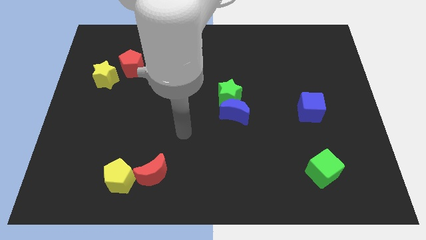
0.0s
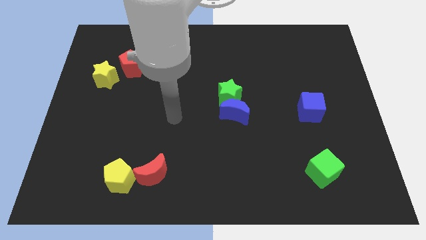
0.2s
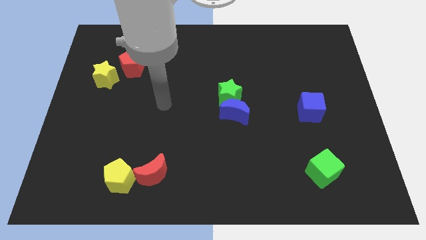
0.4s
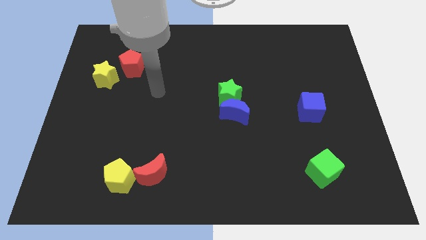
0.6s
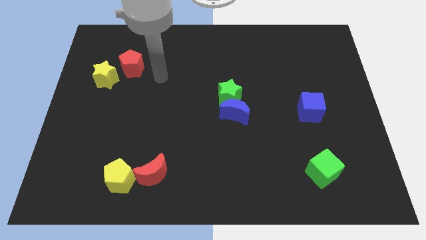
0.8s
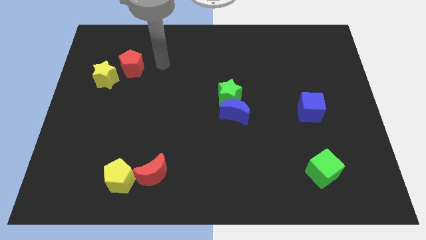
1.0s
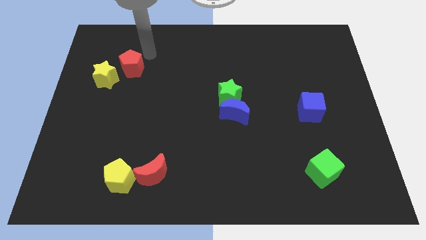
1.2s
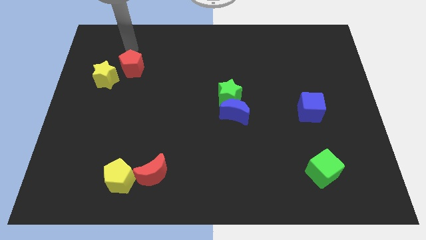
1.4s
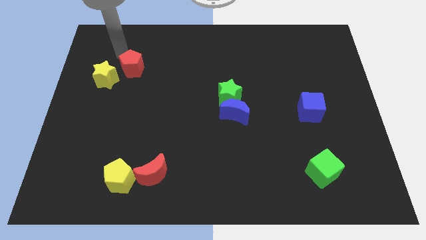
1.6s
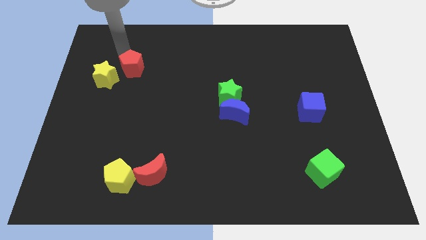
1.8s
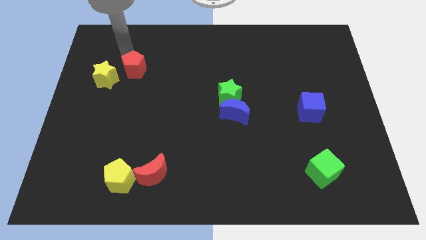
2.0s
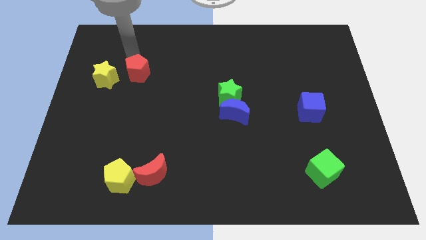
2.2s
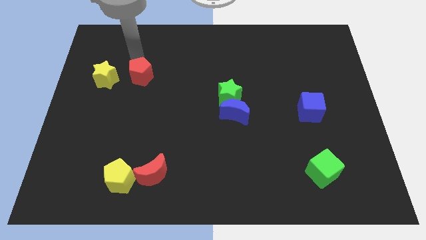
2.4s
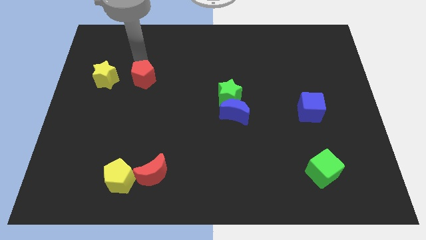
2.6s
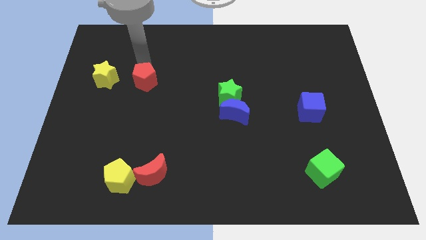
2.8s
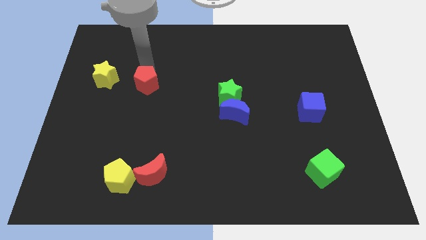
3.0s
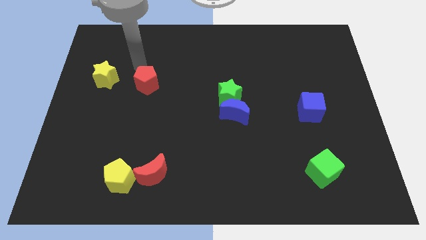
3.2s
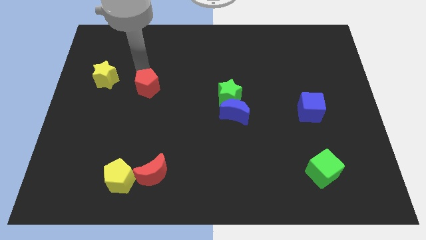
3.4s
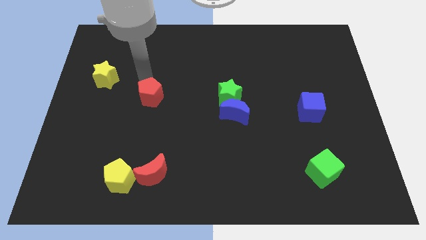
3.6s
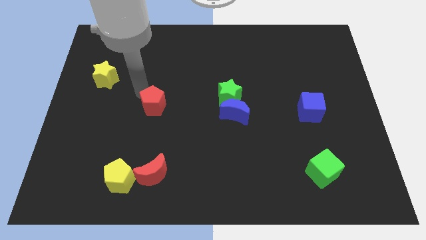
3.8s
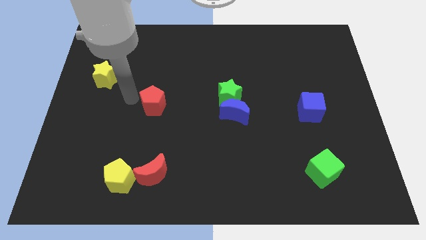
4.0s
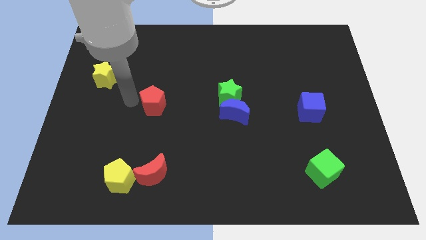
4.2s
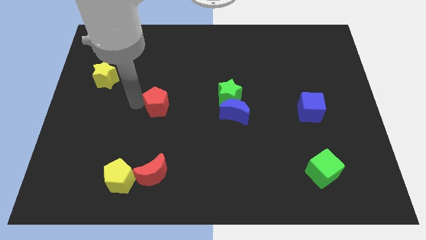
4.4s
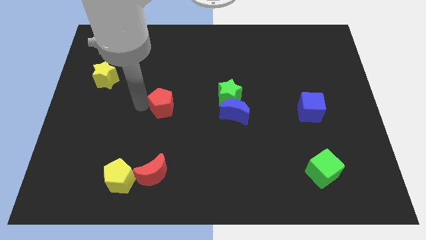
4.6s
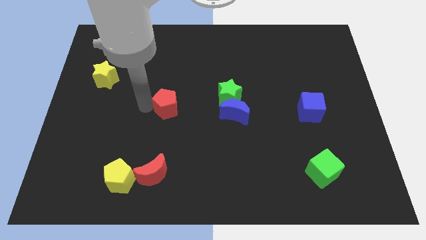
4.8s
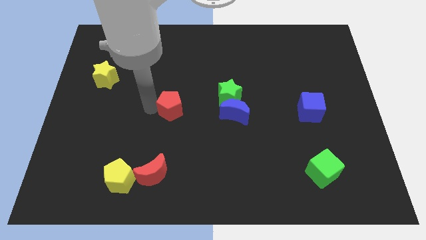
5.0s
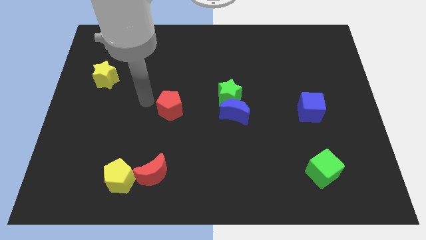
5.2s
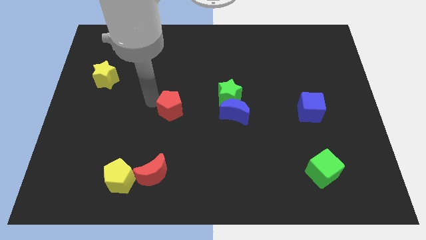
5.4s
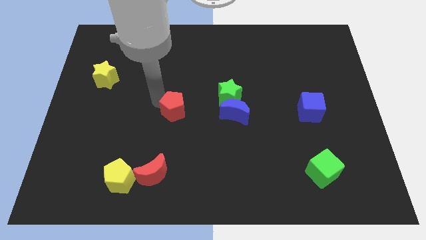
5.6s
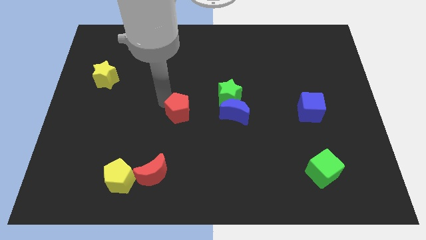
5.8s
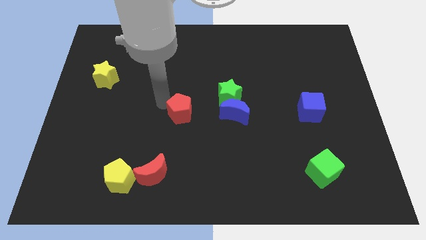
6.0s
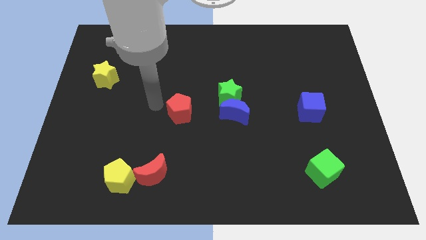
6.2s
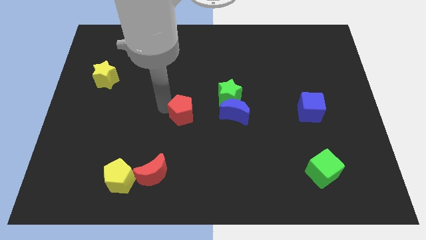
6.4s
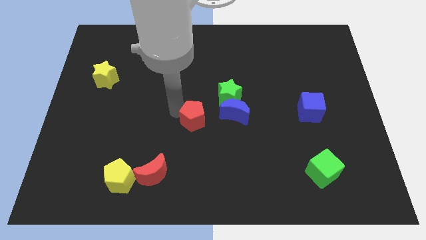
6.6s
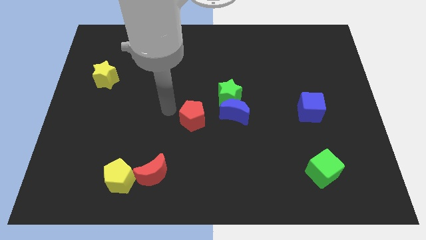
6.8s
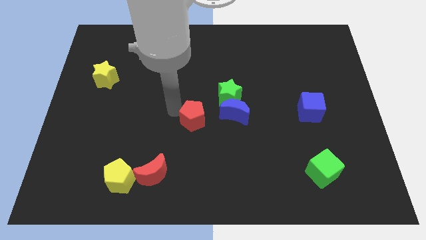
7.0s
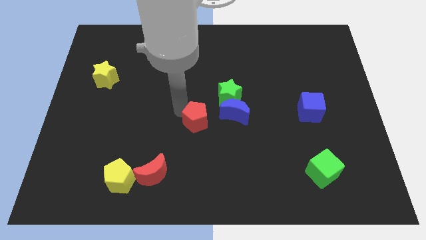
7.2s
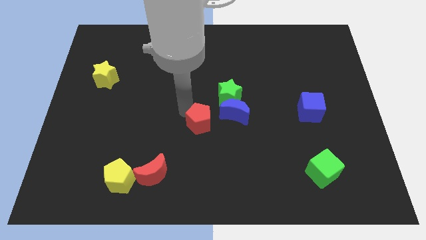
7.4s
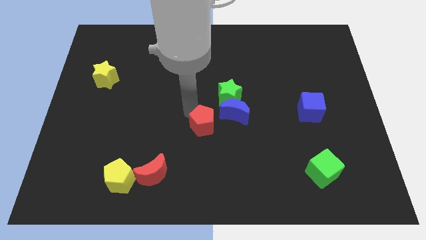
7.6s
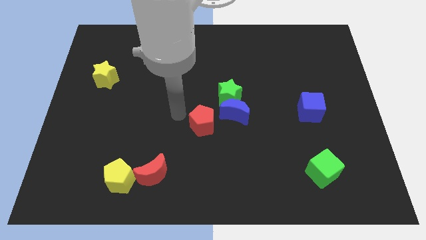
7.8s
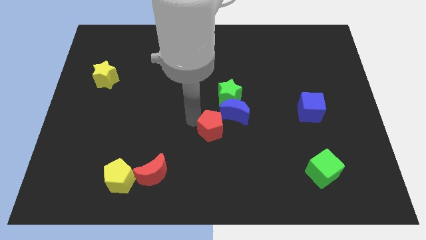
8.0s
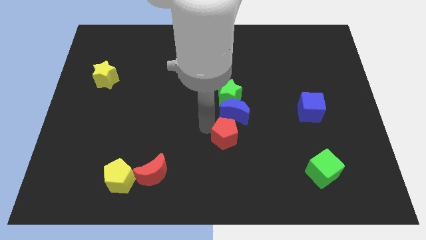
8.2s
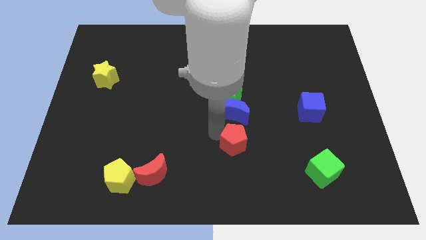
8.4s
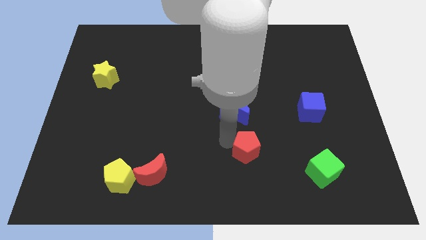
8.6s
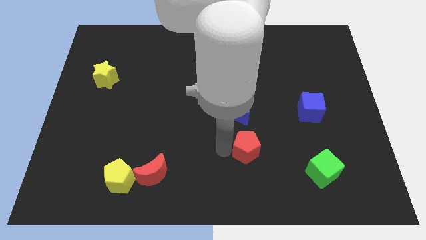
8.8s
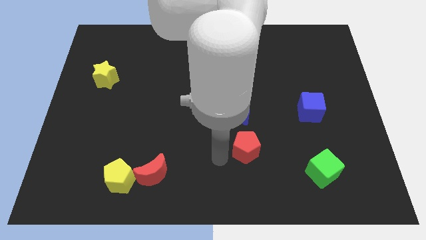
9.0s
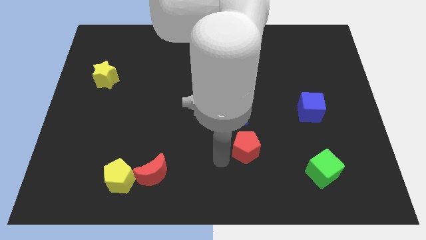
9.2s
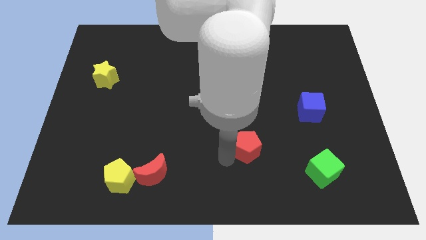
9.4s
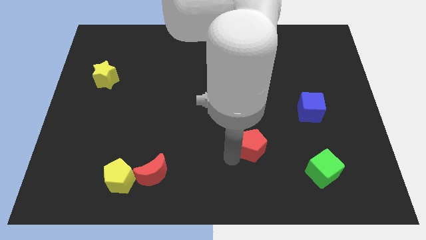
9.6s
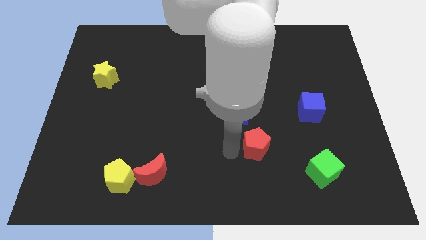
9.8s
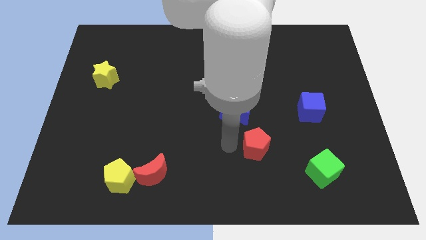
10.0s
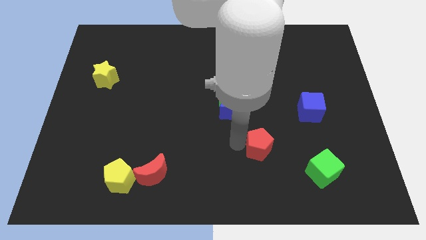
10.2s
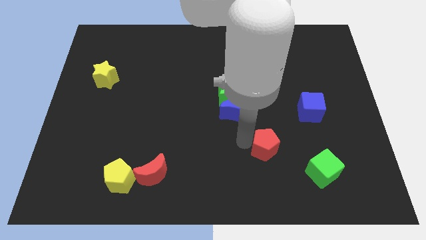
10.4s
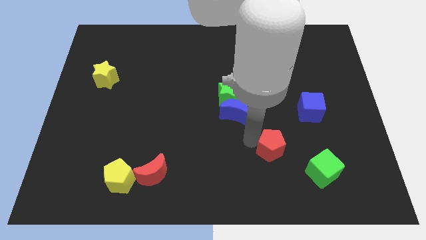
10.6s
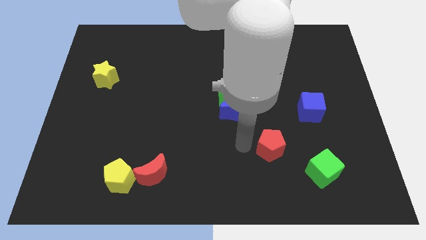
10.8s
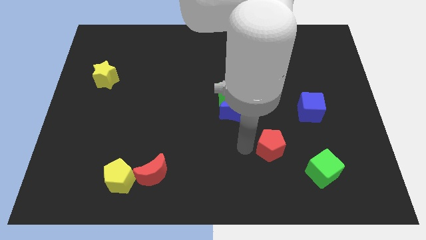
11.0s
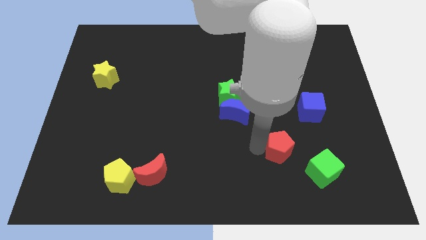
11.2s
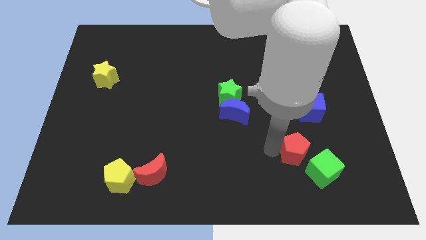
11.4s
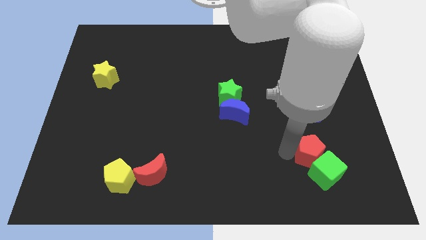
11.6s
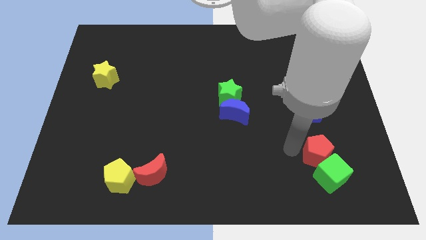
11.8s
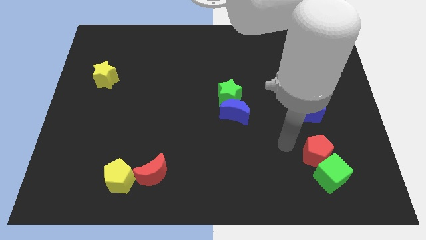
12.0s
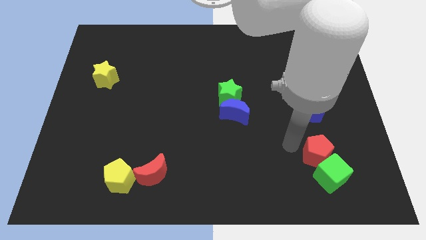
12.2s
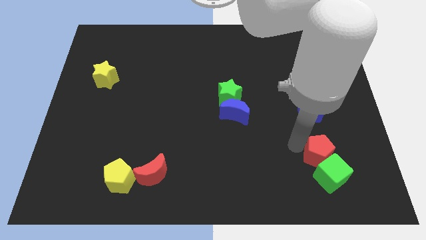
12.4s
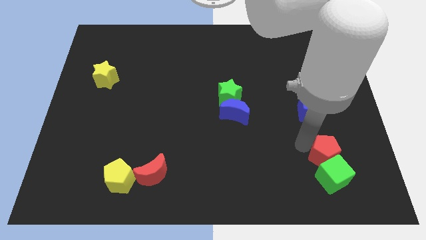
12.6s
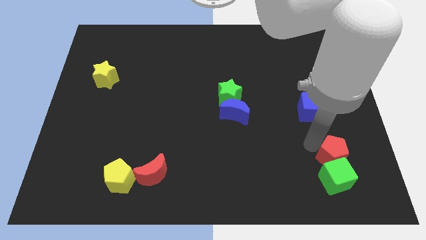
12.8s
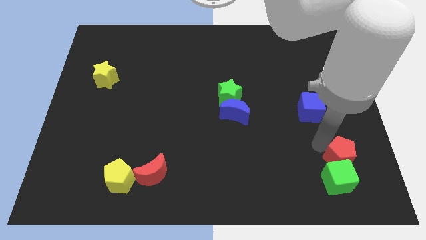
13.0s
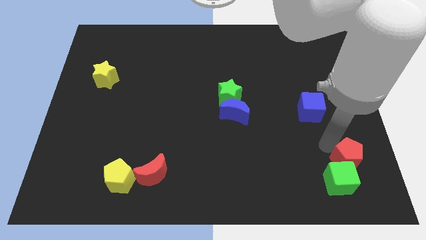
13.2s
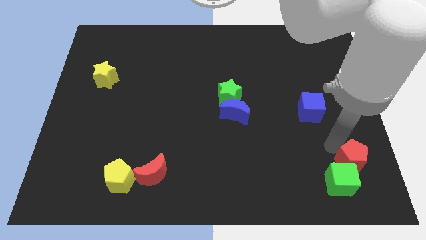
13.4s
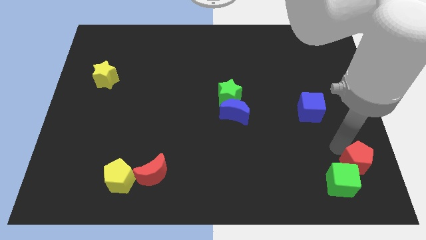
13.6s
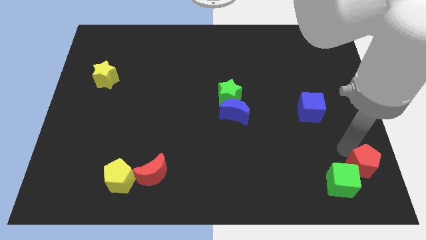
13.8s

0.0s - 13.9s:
put the red pentagon to the lower right corner
